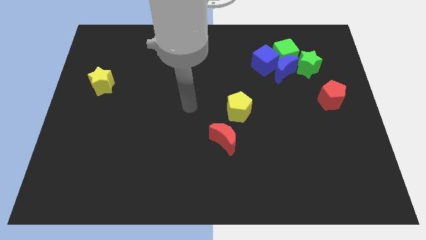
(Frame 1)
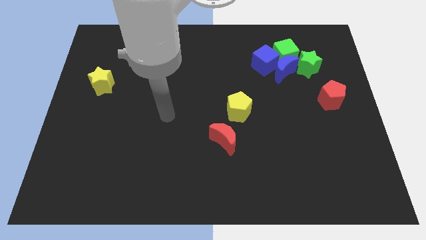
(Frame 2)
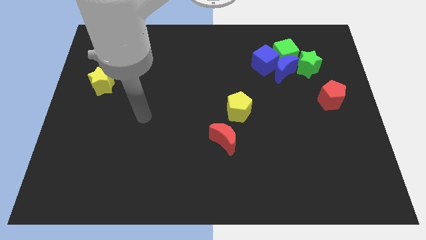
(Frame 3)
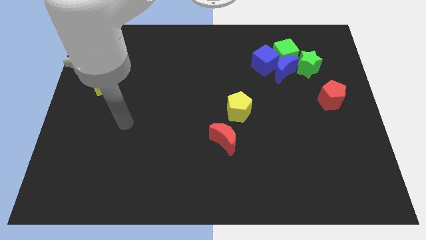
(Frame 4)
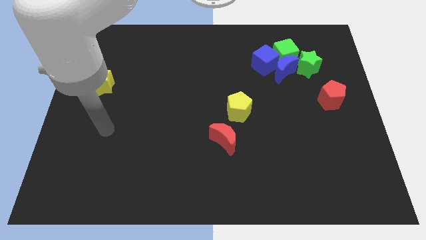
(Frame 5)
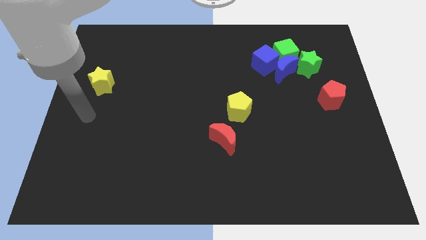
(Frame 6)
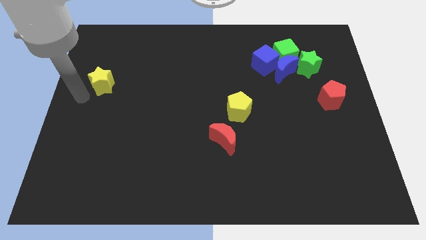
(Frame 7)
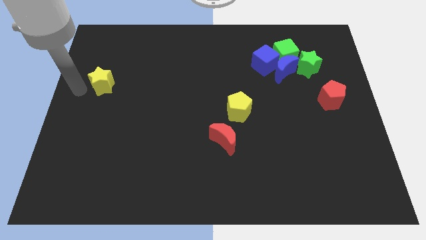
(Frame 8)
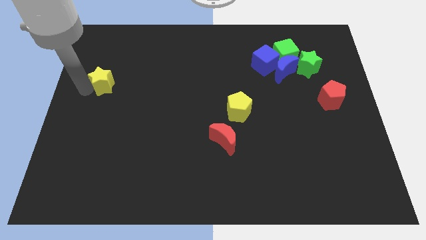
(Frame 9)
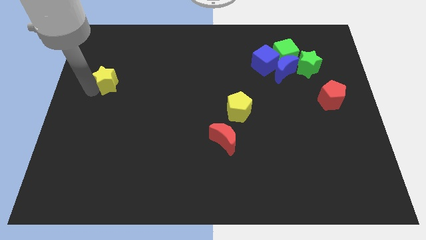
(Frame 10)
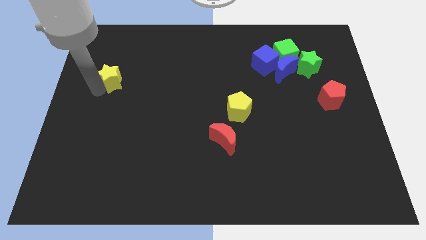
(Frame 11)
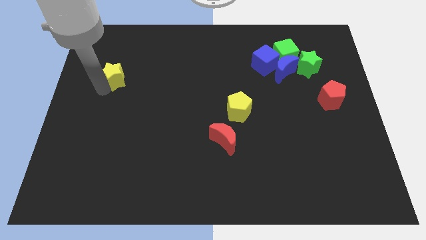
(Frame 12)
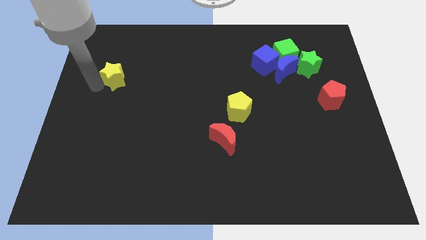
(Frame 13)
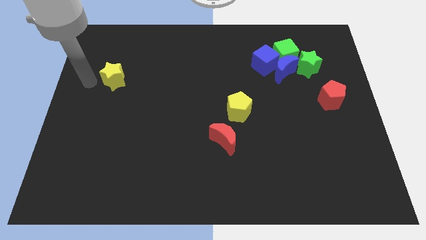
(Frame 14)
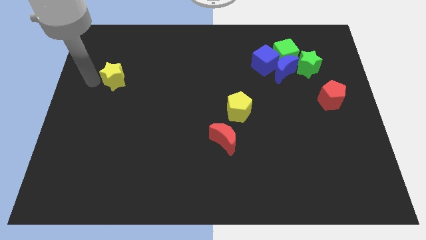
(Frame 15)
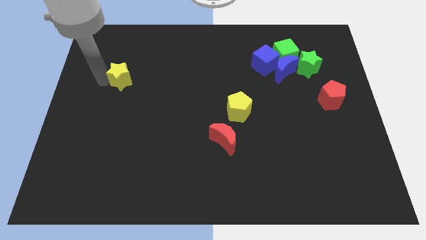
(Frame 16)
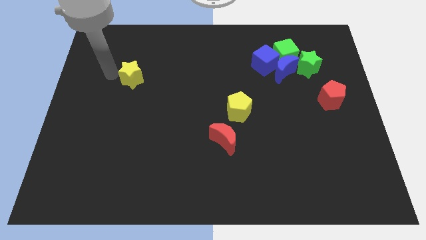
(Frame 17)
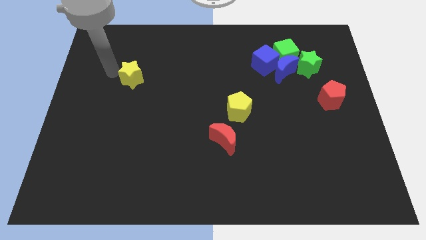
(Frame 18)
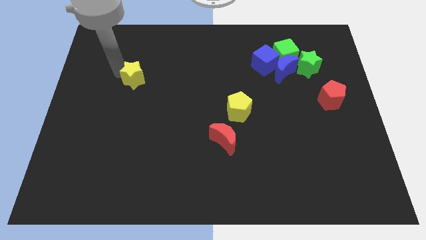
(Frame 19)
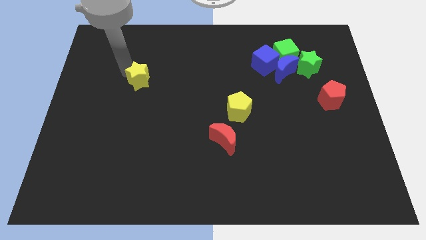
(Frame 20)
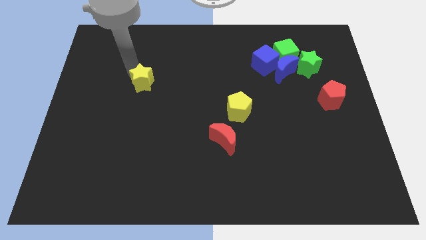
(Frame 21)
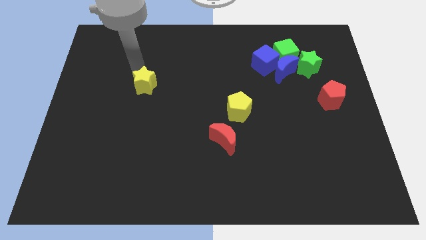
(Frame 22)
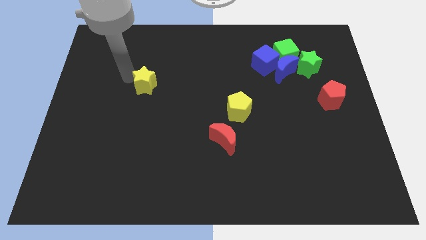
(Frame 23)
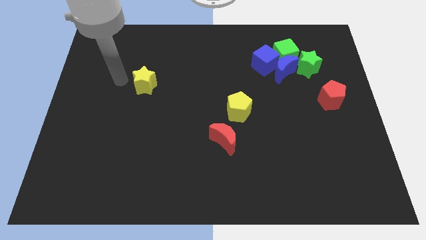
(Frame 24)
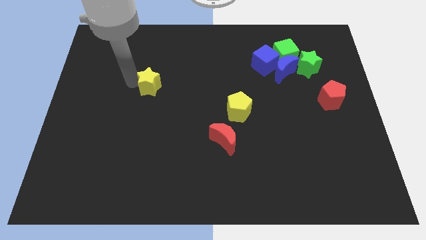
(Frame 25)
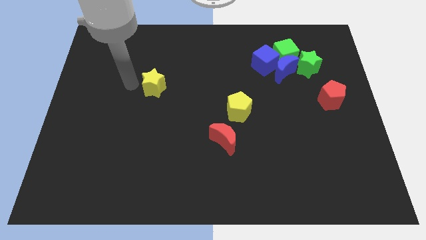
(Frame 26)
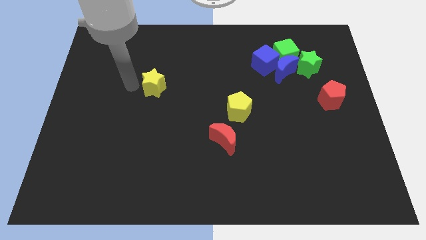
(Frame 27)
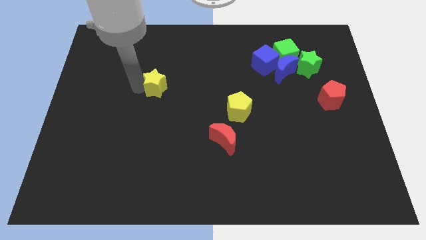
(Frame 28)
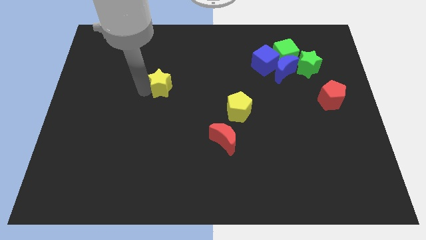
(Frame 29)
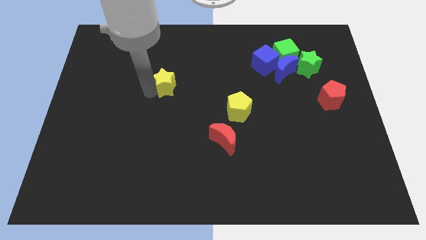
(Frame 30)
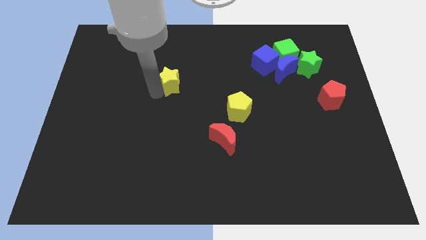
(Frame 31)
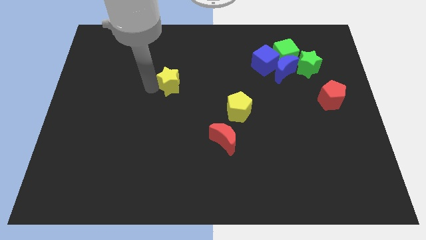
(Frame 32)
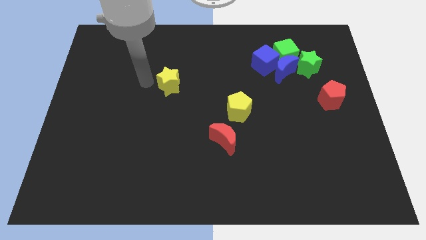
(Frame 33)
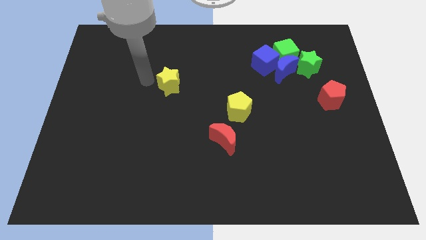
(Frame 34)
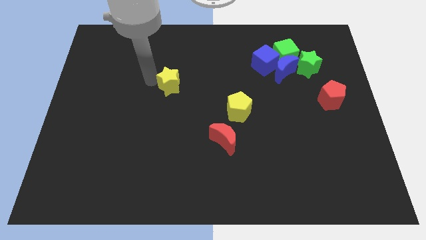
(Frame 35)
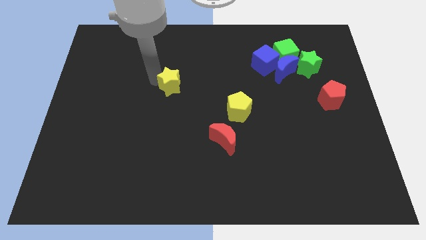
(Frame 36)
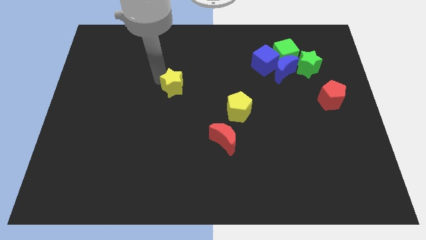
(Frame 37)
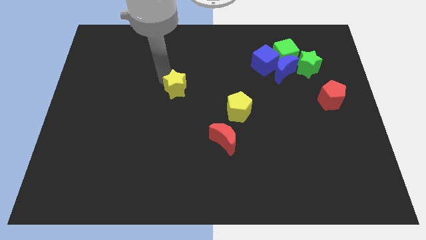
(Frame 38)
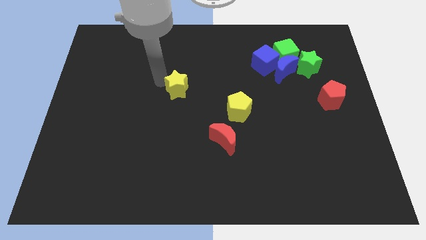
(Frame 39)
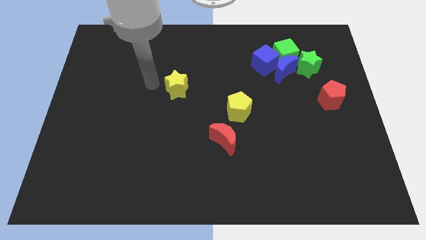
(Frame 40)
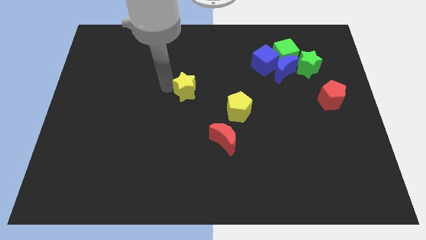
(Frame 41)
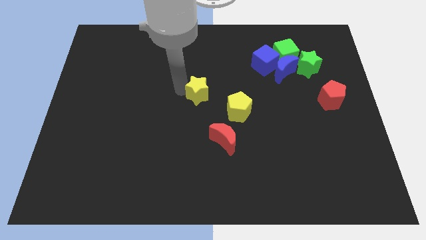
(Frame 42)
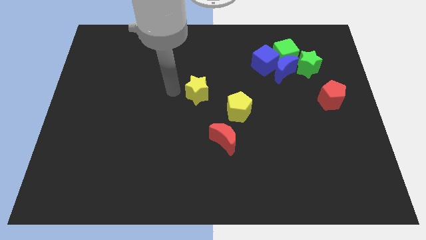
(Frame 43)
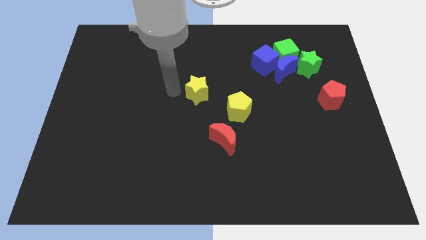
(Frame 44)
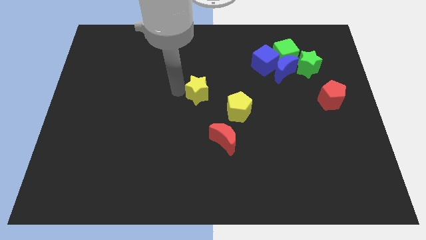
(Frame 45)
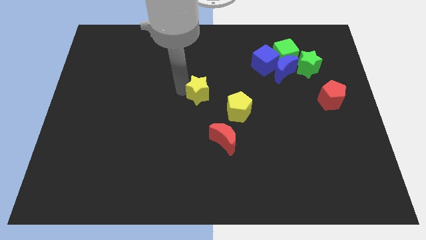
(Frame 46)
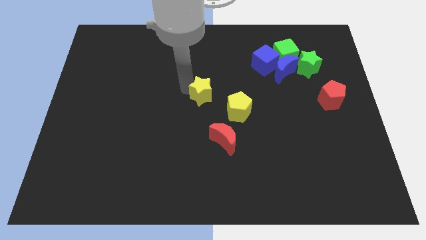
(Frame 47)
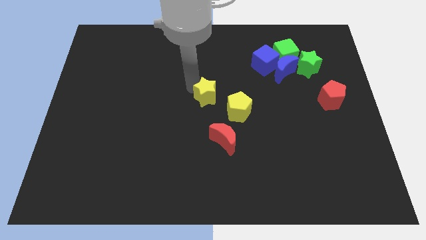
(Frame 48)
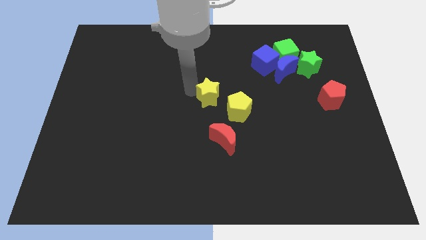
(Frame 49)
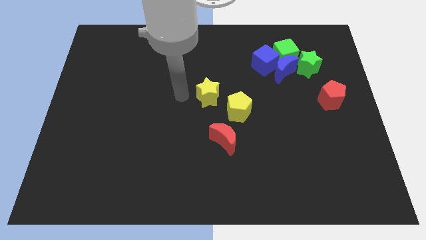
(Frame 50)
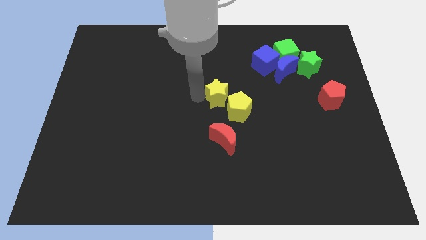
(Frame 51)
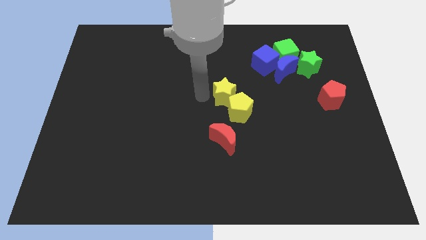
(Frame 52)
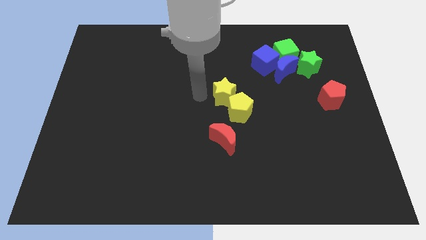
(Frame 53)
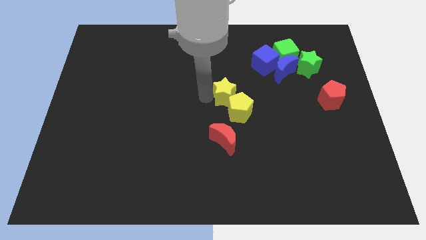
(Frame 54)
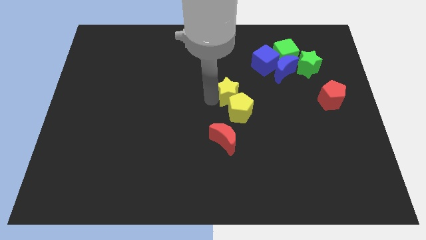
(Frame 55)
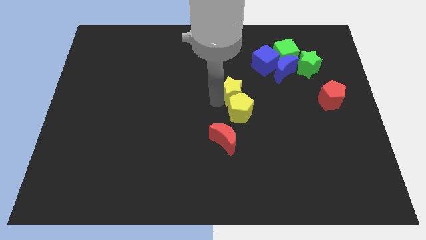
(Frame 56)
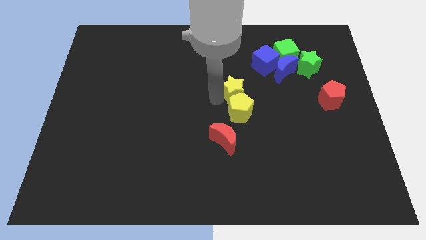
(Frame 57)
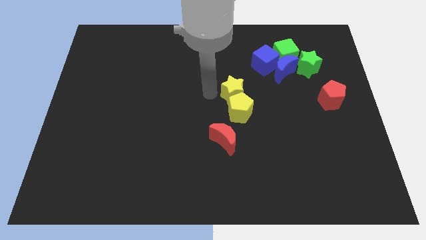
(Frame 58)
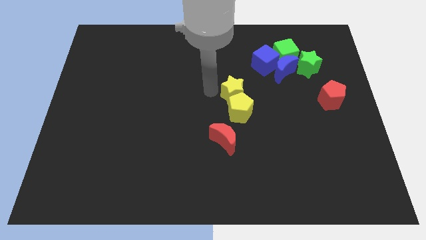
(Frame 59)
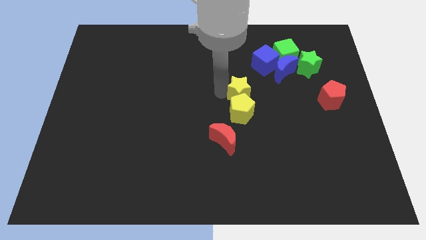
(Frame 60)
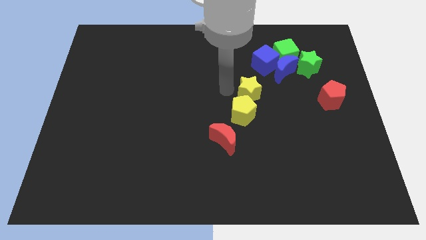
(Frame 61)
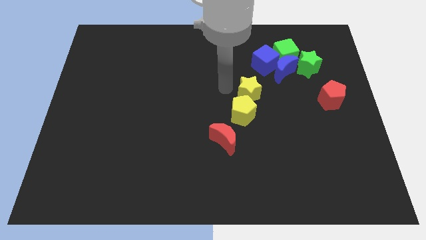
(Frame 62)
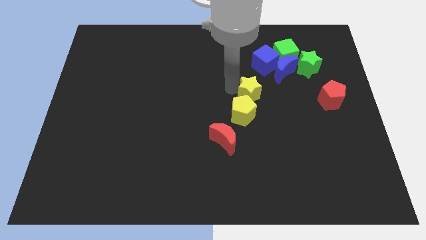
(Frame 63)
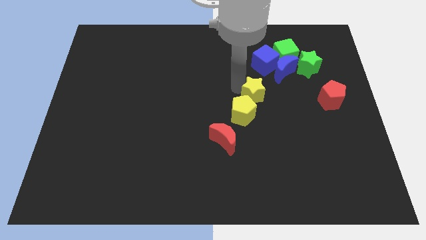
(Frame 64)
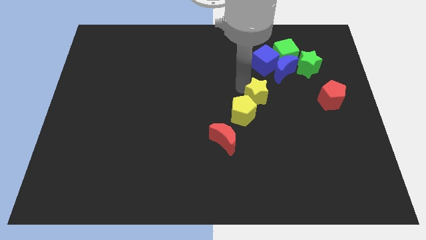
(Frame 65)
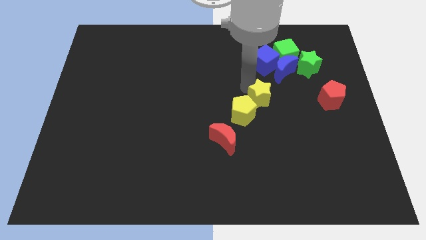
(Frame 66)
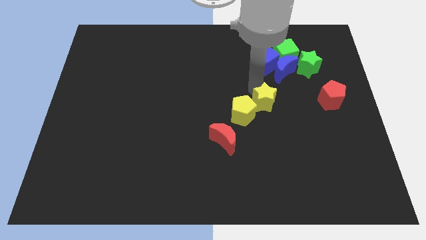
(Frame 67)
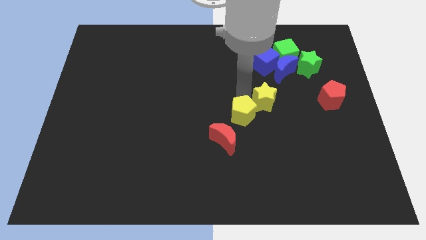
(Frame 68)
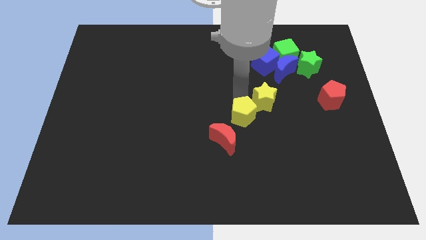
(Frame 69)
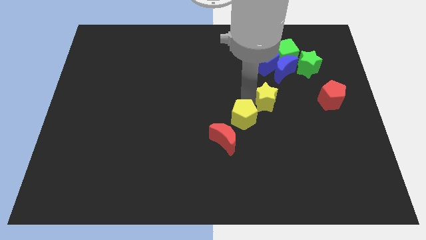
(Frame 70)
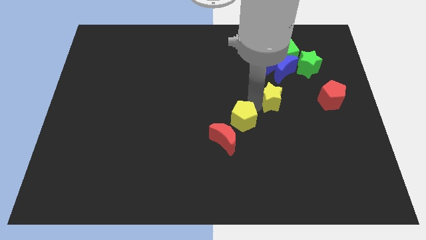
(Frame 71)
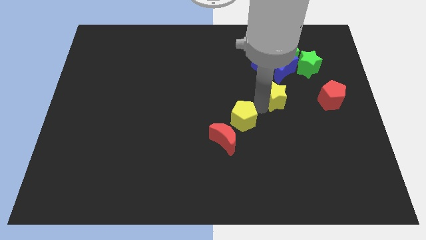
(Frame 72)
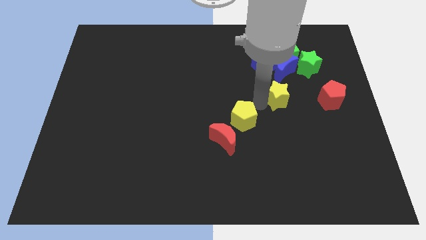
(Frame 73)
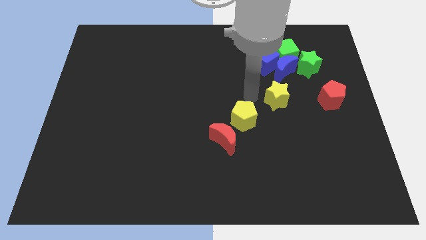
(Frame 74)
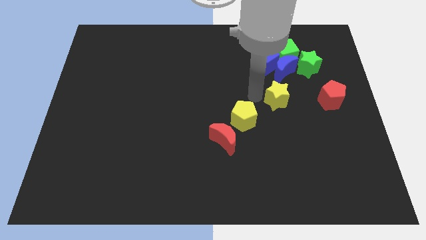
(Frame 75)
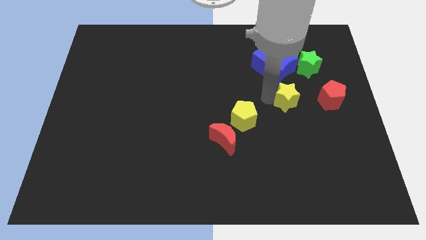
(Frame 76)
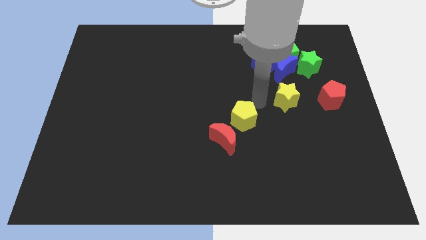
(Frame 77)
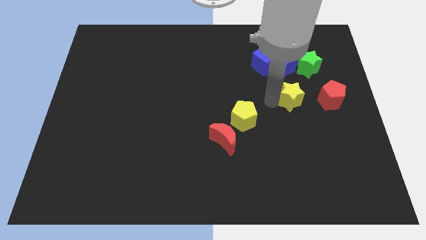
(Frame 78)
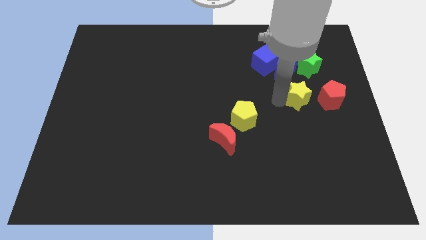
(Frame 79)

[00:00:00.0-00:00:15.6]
push the yellow star to the bottom side of the green star

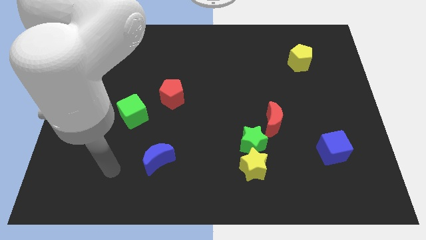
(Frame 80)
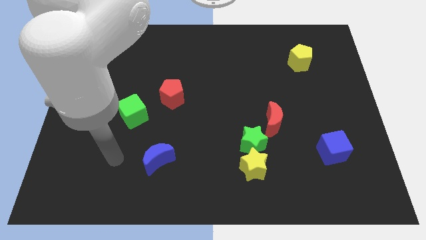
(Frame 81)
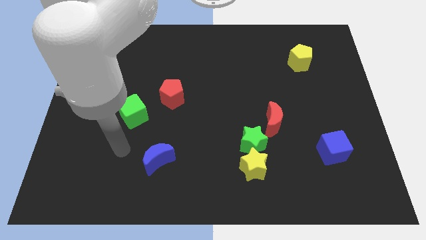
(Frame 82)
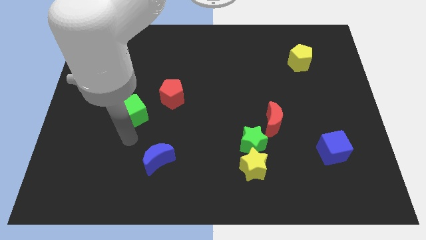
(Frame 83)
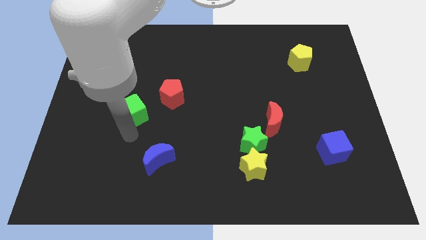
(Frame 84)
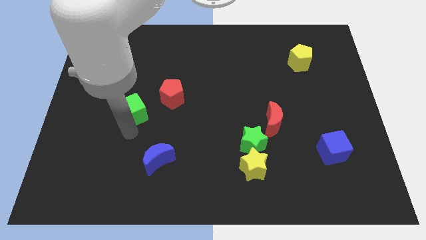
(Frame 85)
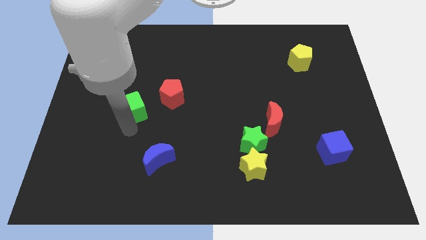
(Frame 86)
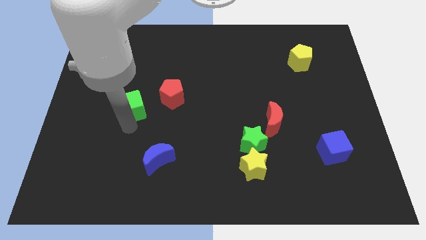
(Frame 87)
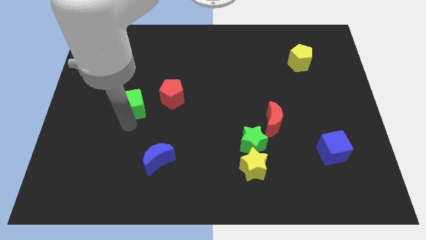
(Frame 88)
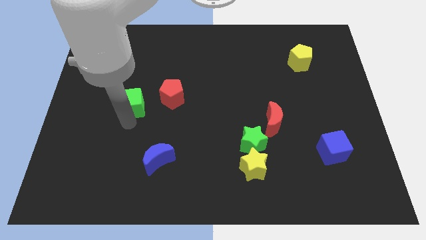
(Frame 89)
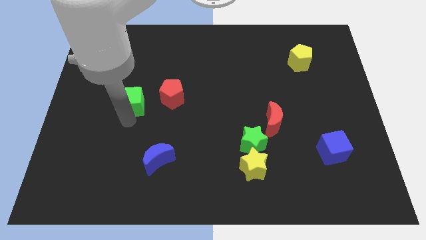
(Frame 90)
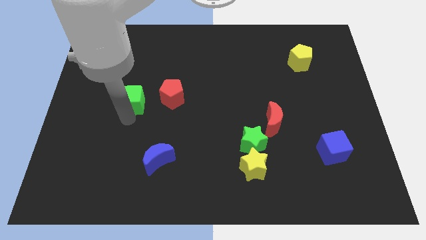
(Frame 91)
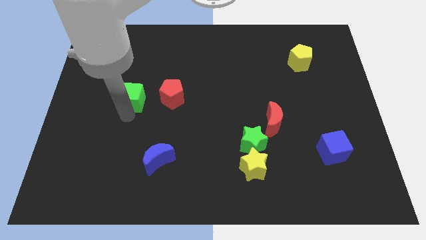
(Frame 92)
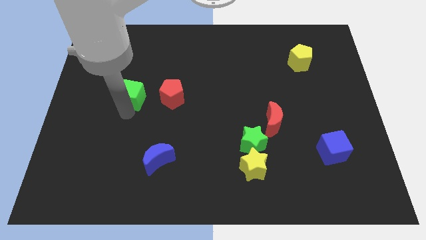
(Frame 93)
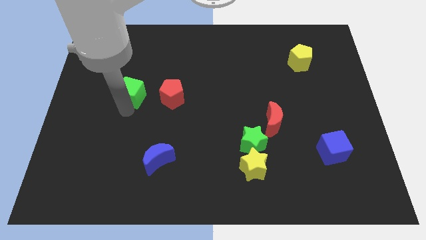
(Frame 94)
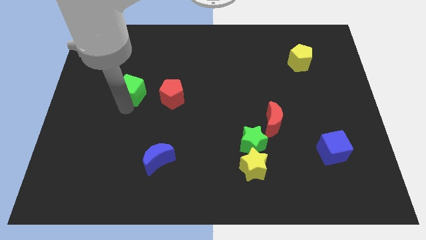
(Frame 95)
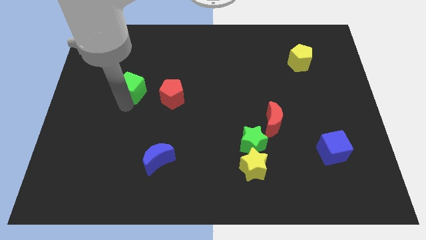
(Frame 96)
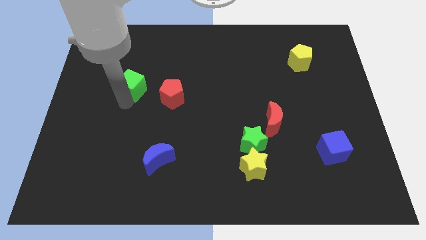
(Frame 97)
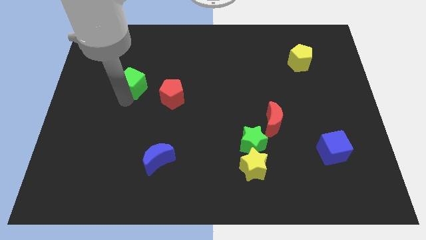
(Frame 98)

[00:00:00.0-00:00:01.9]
push the green cube diagonally up and to the left of the red pentagon
